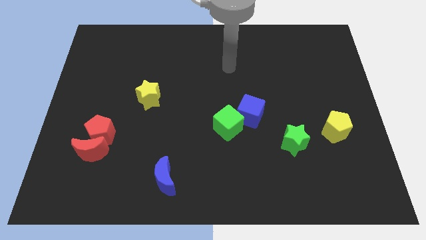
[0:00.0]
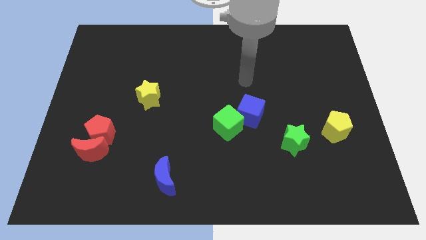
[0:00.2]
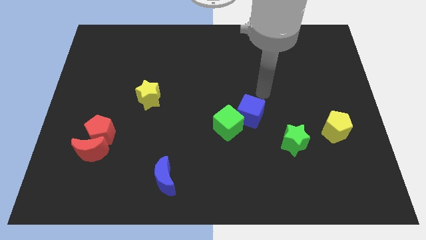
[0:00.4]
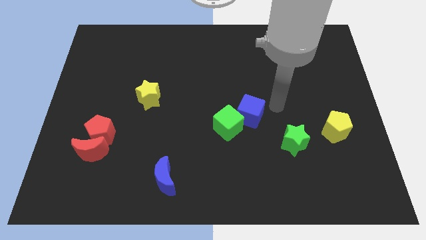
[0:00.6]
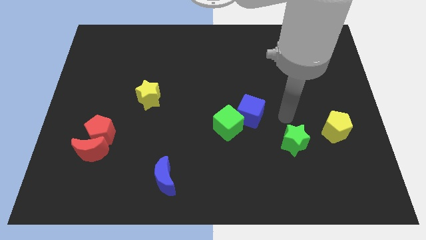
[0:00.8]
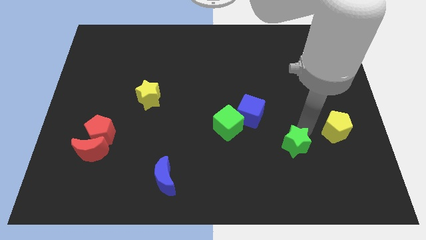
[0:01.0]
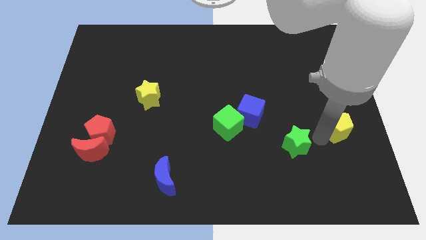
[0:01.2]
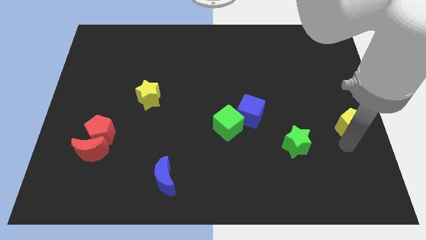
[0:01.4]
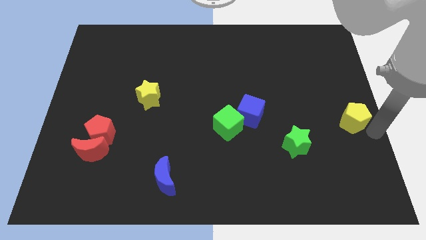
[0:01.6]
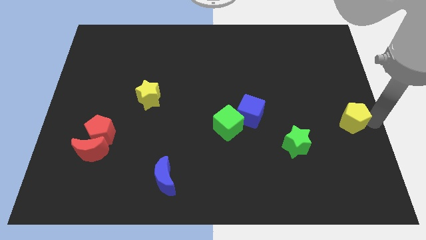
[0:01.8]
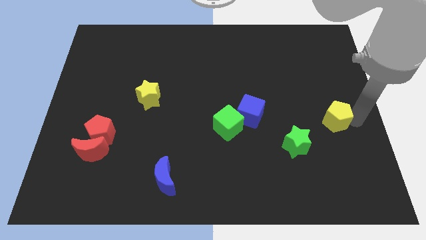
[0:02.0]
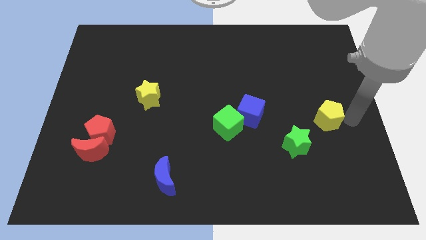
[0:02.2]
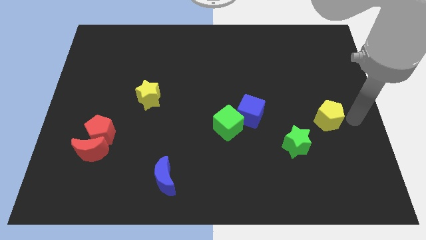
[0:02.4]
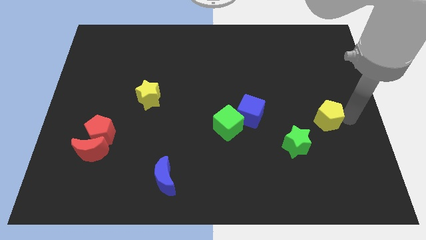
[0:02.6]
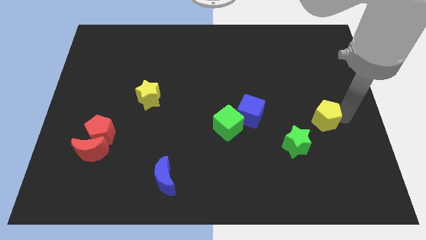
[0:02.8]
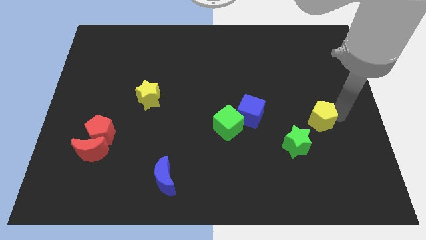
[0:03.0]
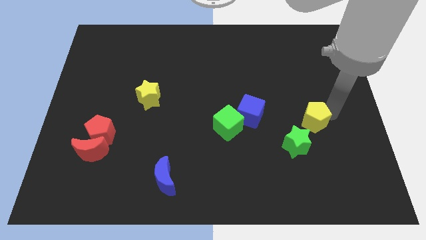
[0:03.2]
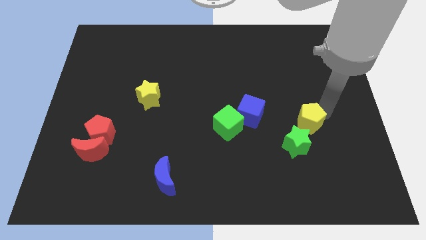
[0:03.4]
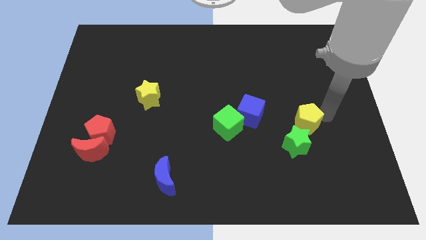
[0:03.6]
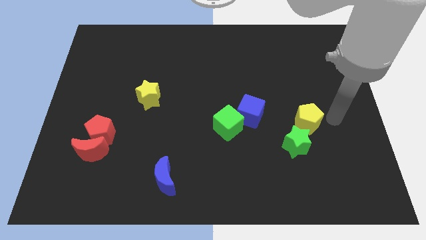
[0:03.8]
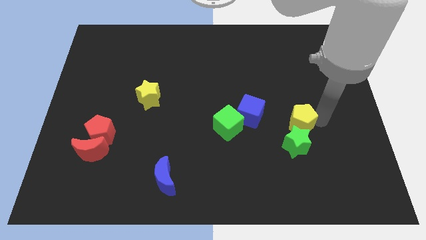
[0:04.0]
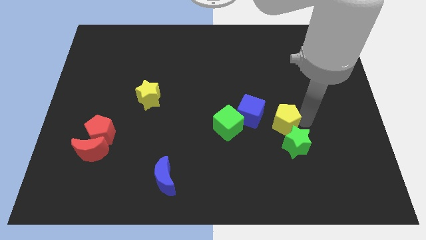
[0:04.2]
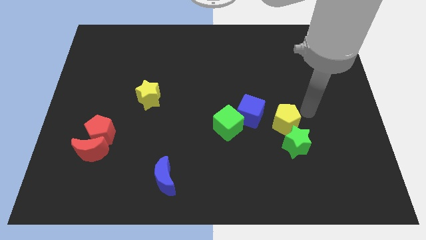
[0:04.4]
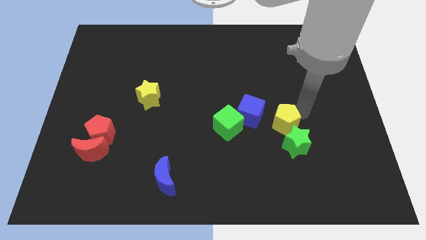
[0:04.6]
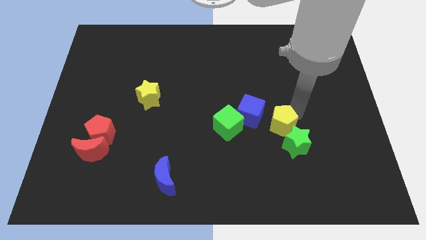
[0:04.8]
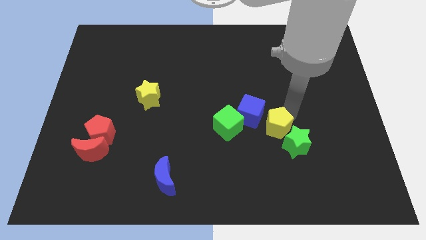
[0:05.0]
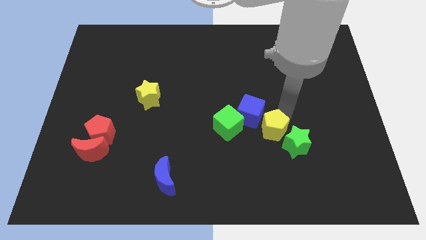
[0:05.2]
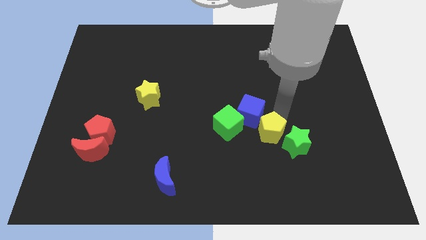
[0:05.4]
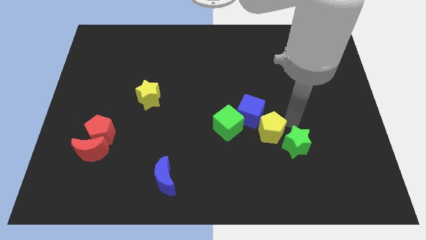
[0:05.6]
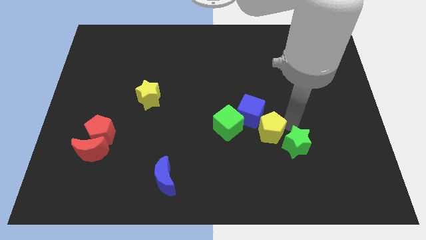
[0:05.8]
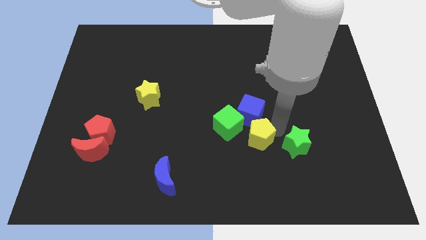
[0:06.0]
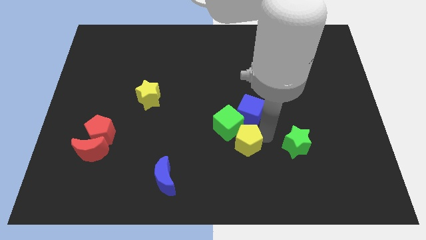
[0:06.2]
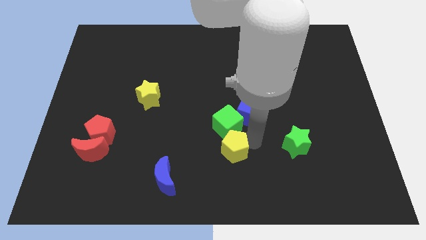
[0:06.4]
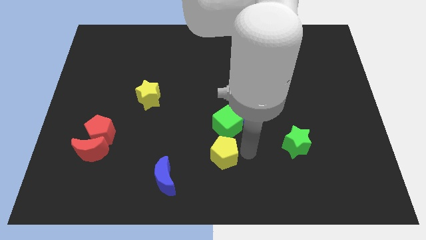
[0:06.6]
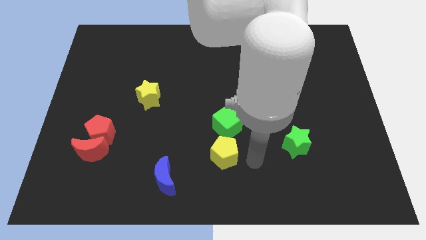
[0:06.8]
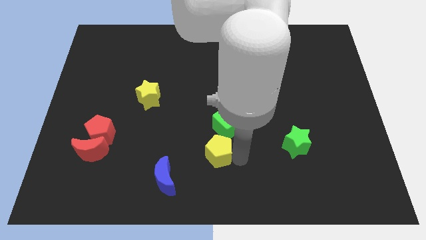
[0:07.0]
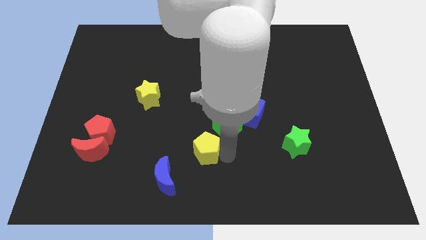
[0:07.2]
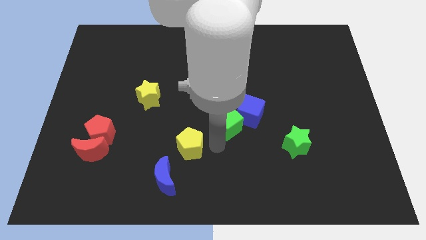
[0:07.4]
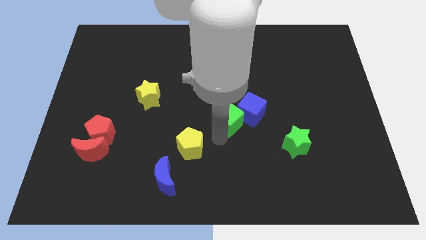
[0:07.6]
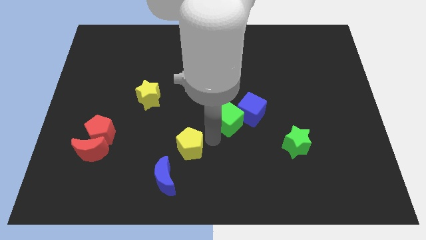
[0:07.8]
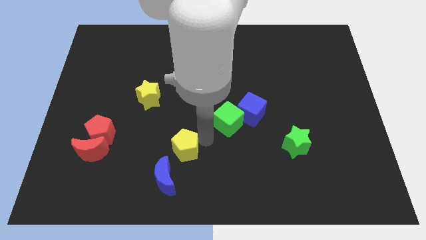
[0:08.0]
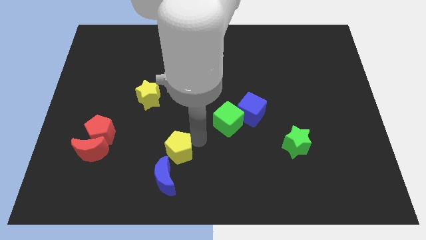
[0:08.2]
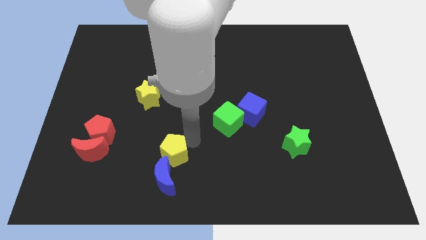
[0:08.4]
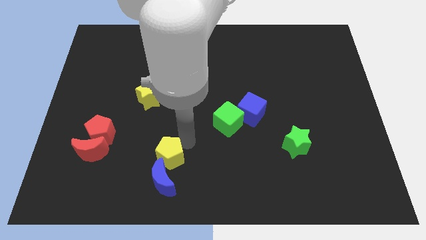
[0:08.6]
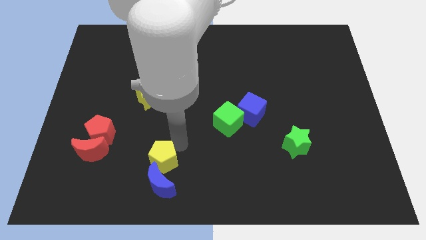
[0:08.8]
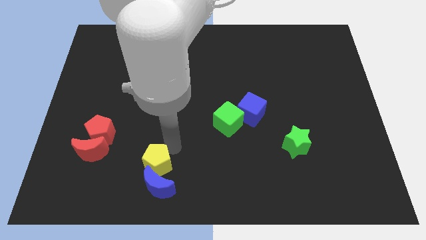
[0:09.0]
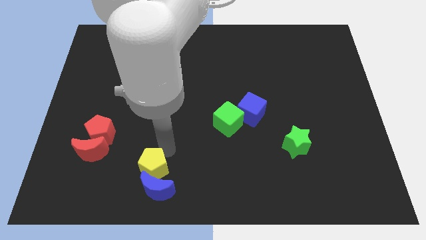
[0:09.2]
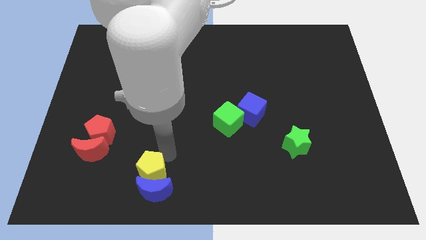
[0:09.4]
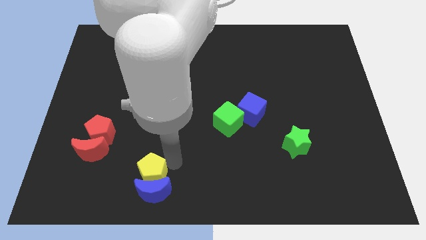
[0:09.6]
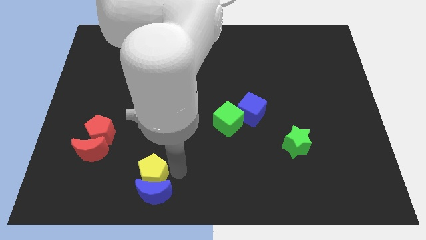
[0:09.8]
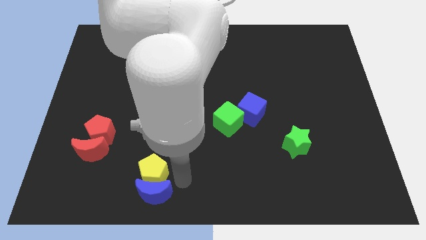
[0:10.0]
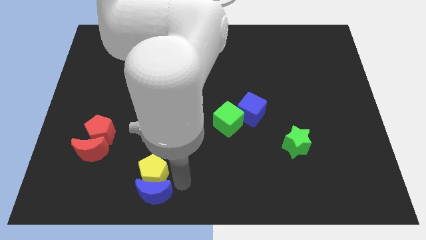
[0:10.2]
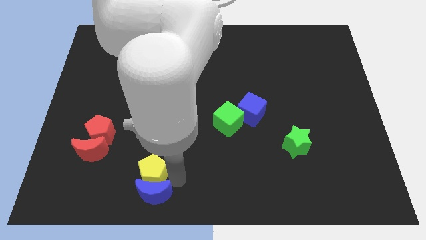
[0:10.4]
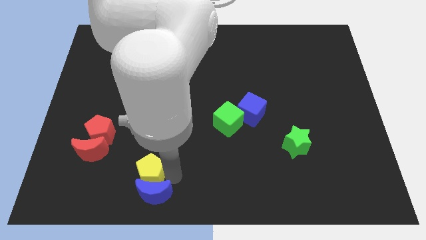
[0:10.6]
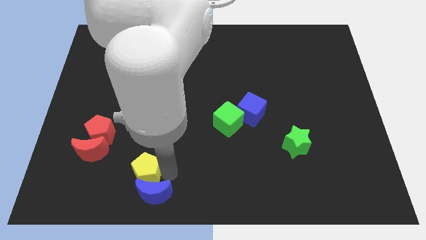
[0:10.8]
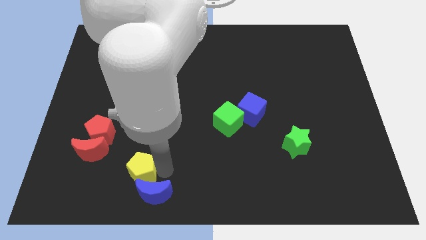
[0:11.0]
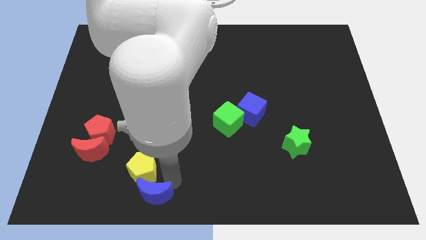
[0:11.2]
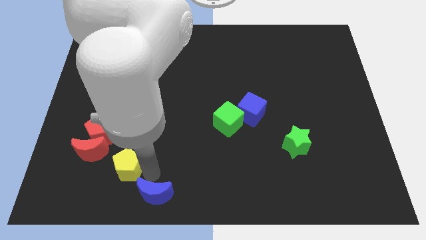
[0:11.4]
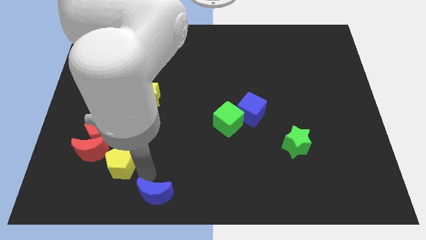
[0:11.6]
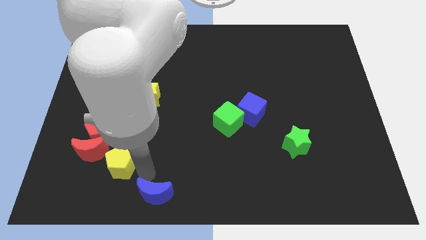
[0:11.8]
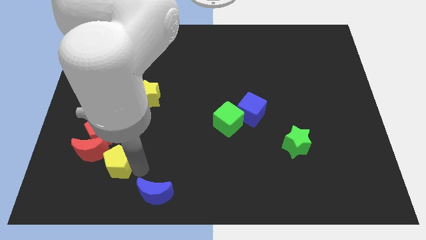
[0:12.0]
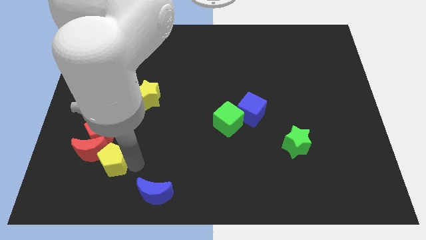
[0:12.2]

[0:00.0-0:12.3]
slide the yellow pentagon towards the red moon

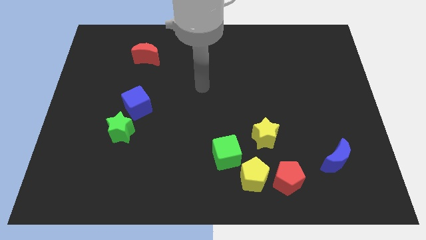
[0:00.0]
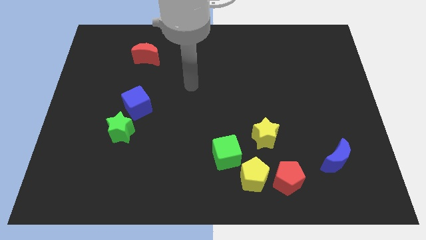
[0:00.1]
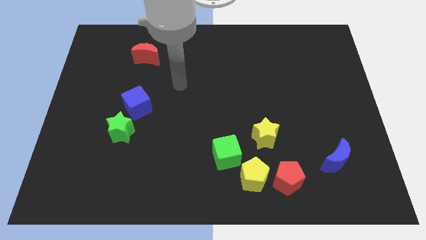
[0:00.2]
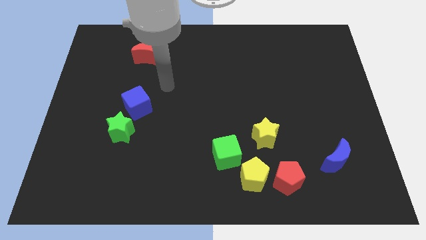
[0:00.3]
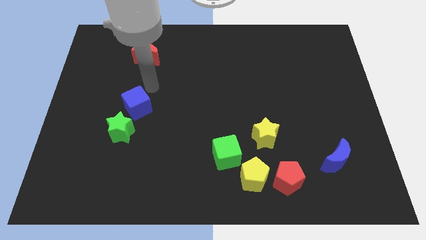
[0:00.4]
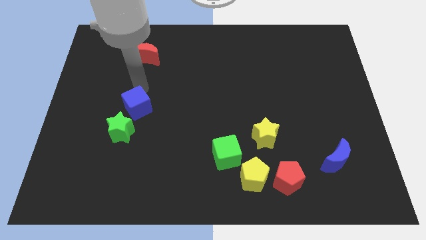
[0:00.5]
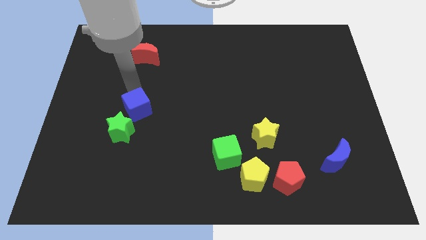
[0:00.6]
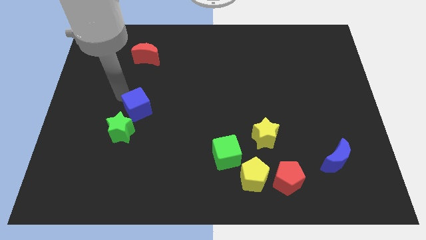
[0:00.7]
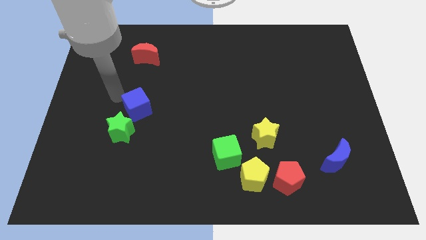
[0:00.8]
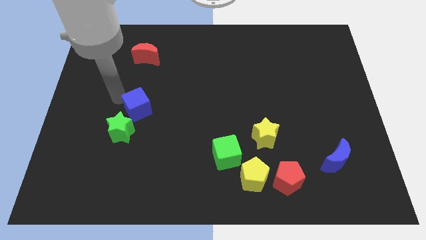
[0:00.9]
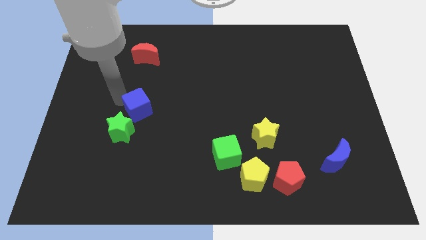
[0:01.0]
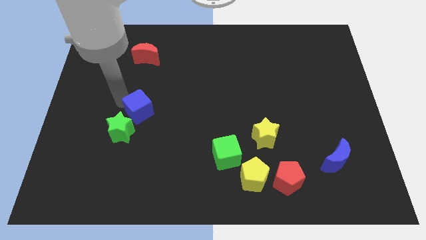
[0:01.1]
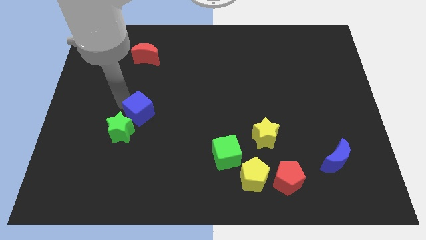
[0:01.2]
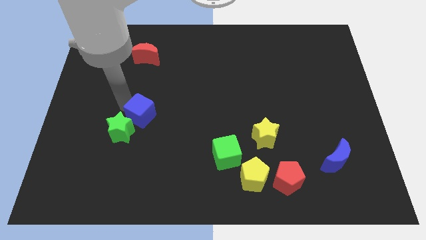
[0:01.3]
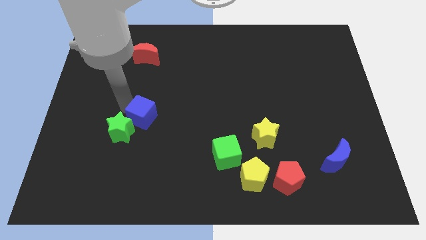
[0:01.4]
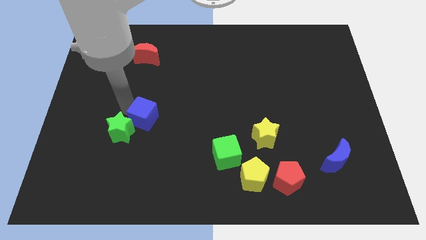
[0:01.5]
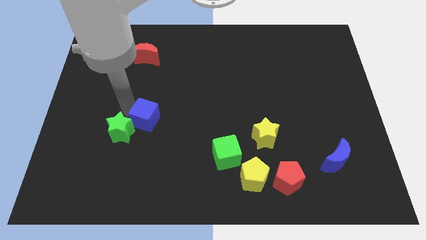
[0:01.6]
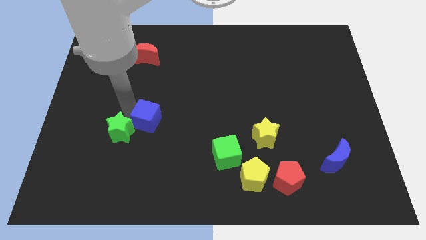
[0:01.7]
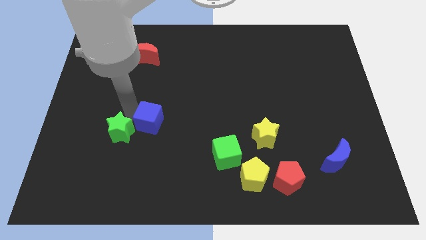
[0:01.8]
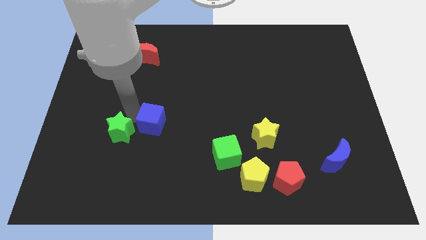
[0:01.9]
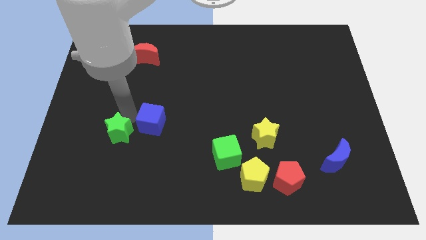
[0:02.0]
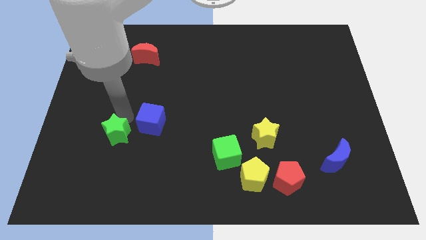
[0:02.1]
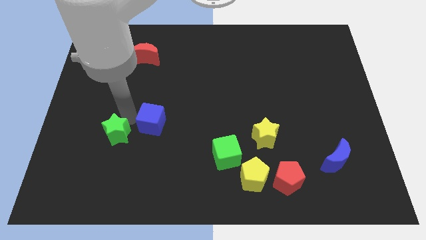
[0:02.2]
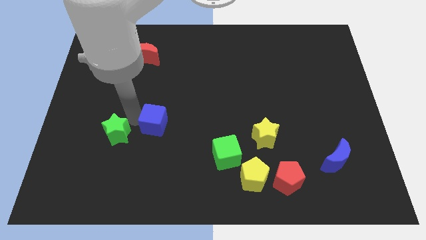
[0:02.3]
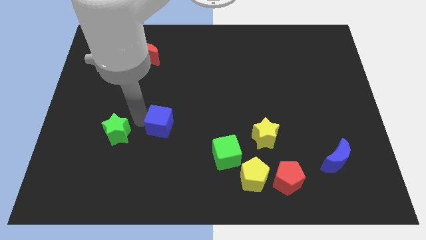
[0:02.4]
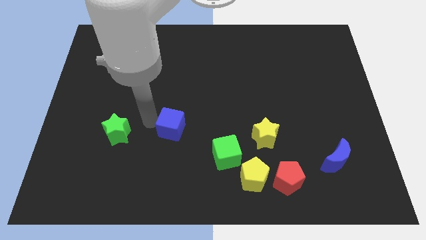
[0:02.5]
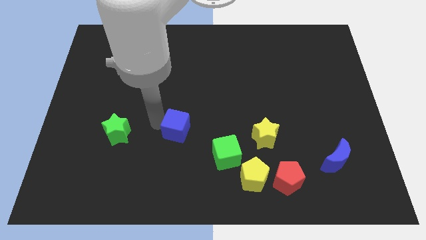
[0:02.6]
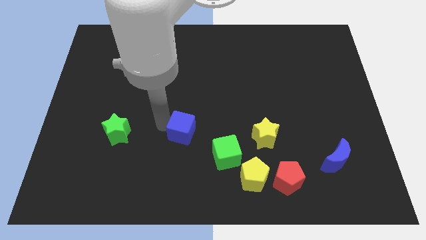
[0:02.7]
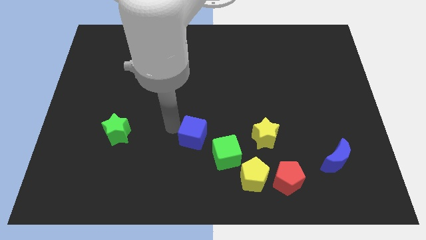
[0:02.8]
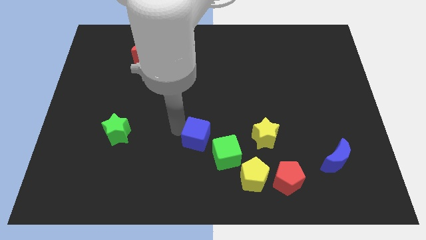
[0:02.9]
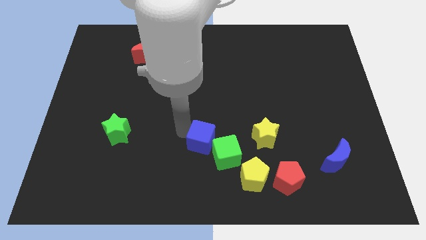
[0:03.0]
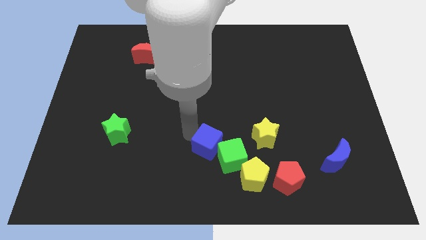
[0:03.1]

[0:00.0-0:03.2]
slide the blue cube next to the green cube
